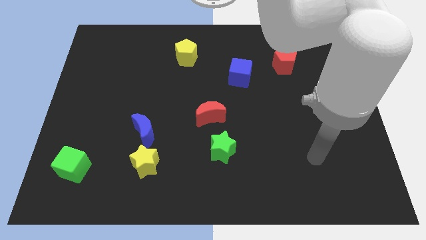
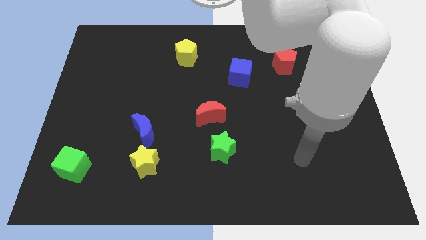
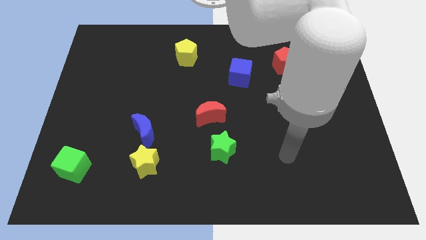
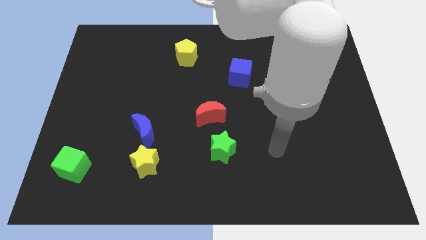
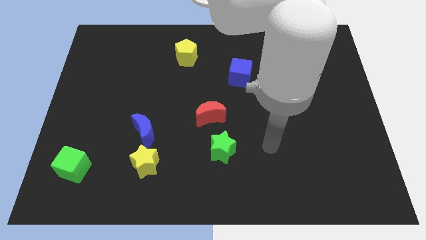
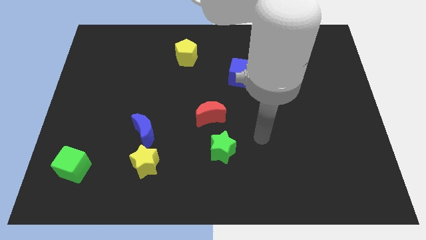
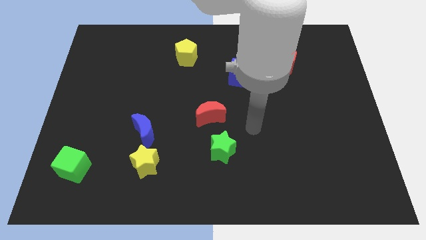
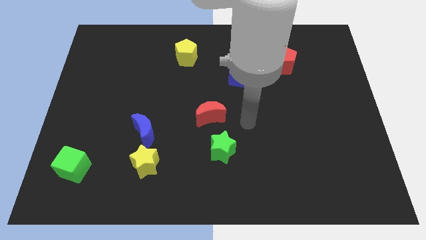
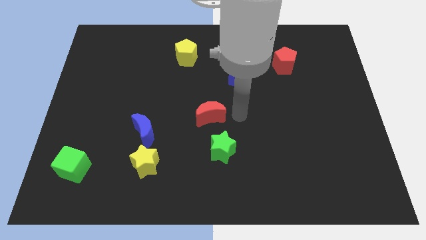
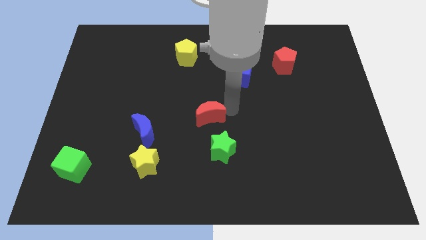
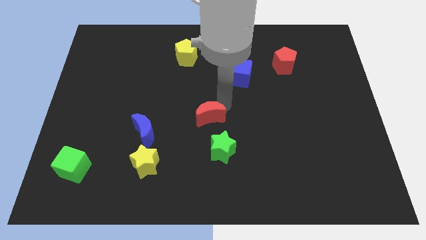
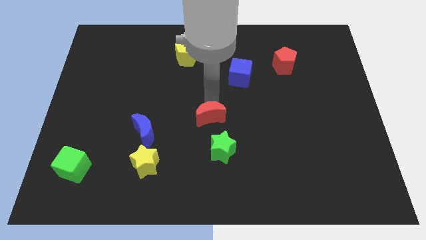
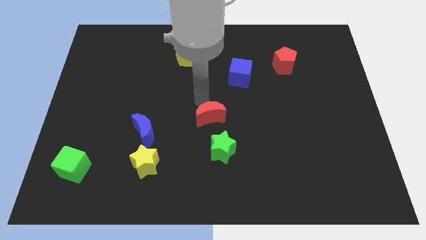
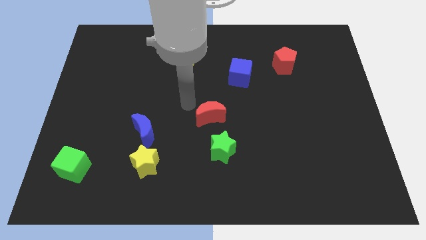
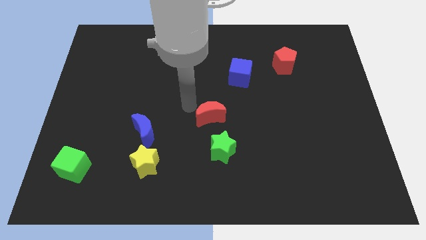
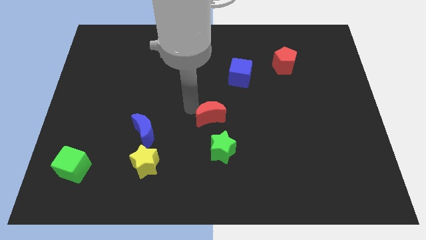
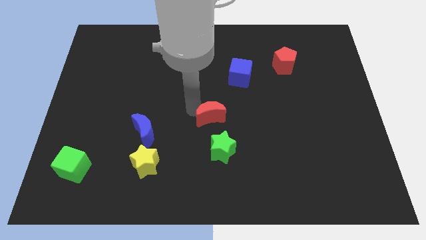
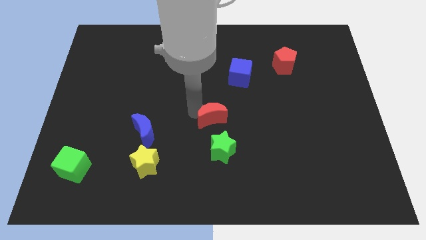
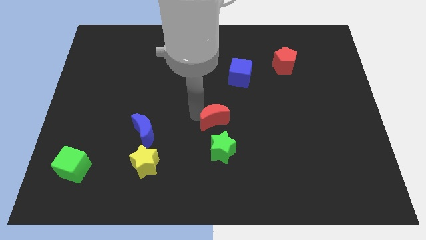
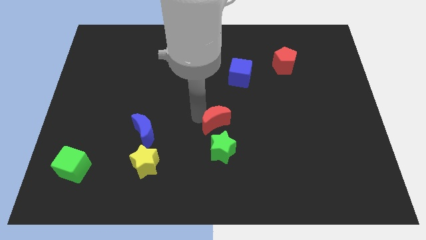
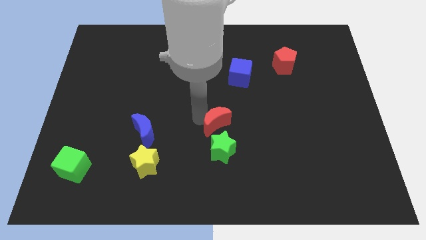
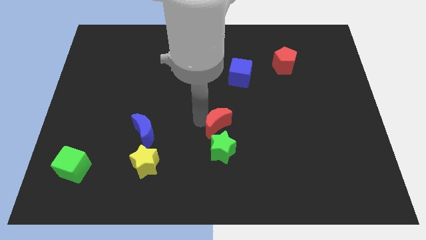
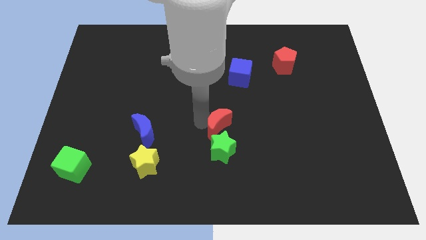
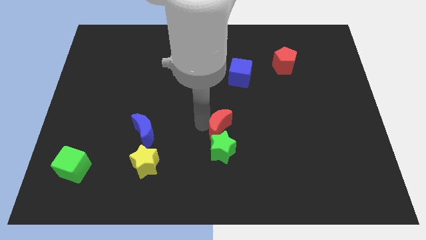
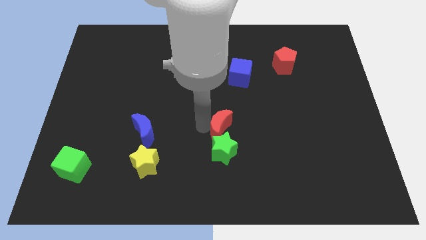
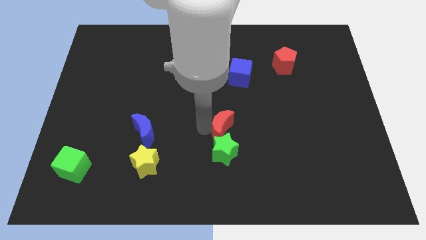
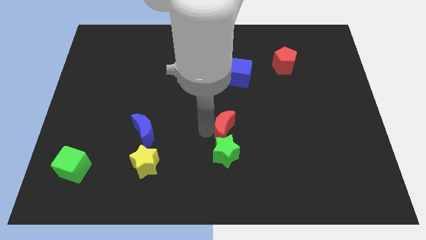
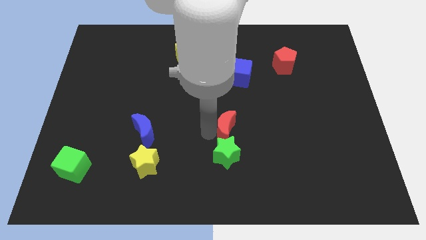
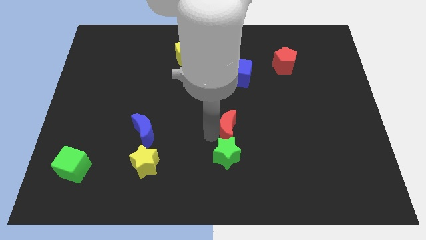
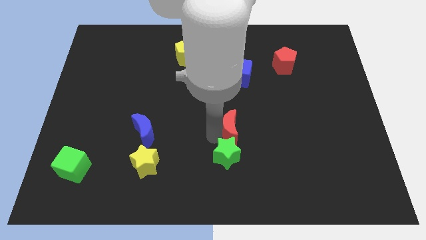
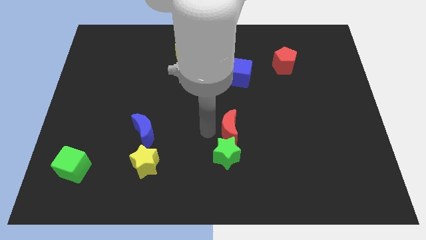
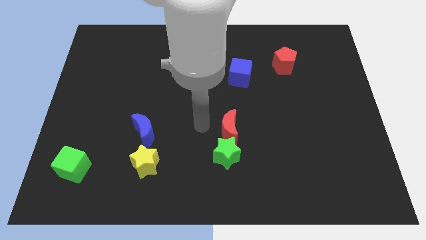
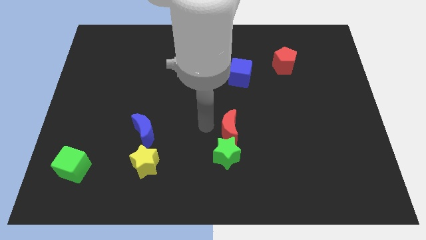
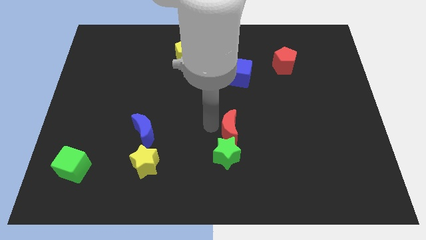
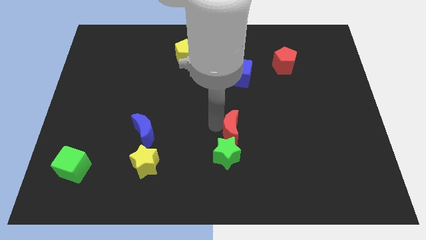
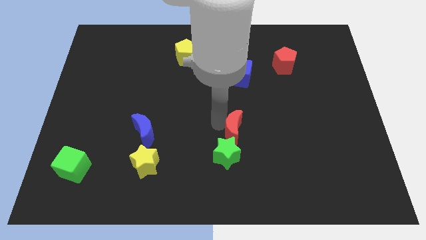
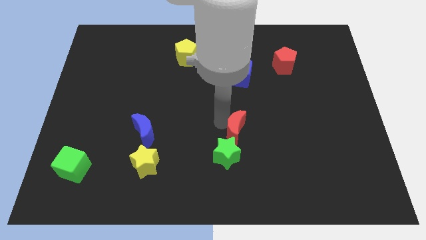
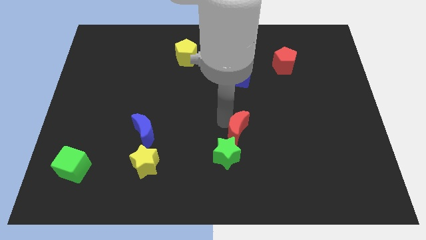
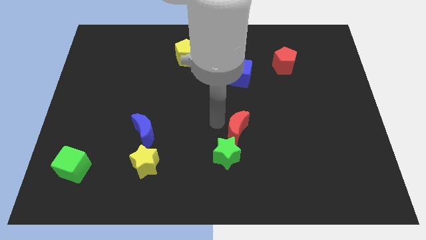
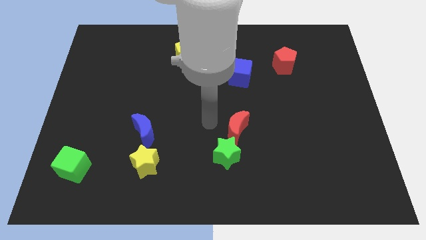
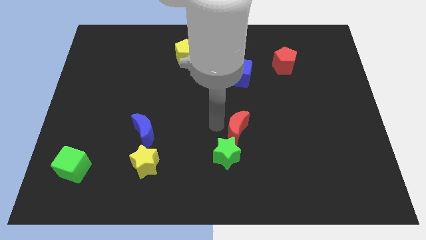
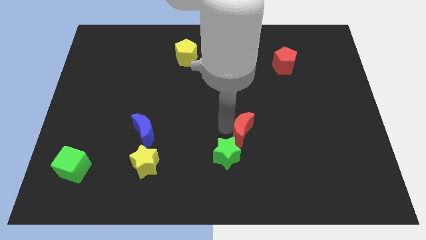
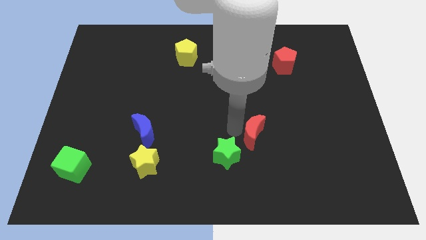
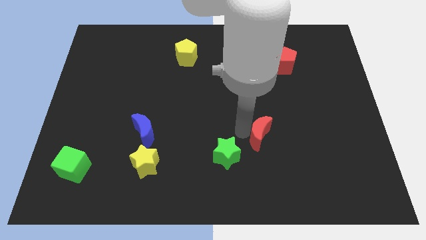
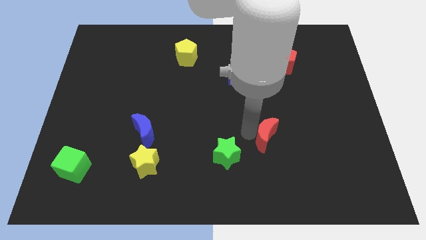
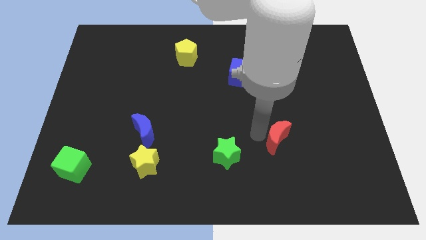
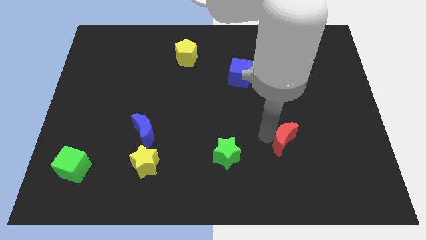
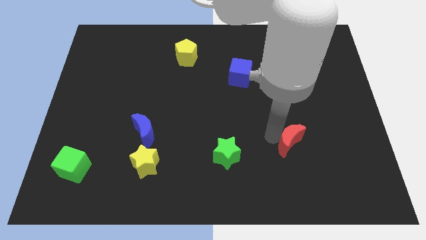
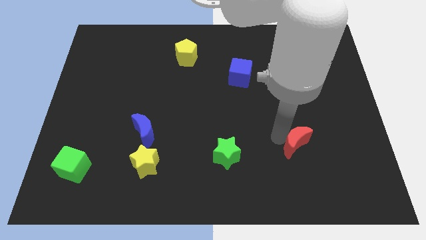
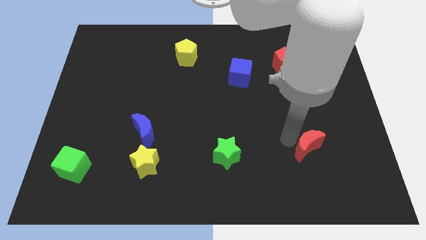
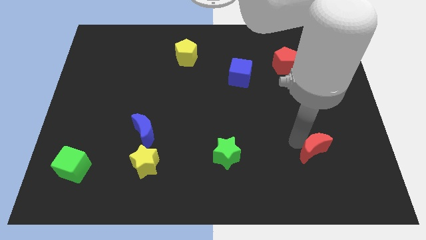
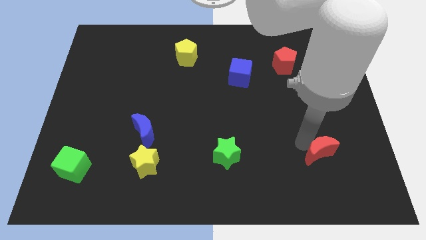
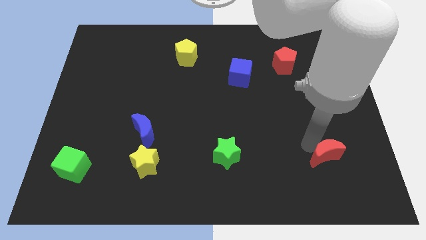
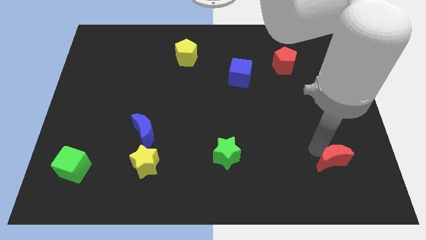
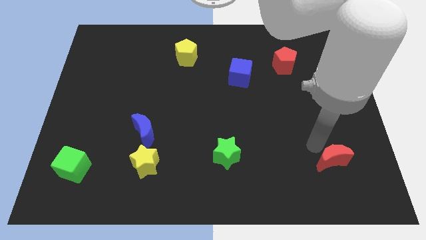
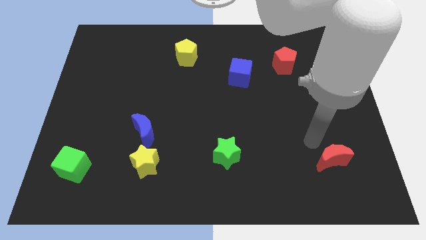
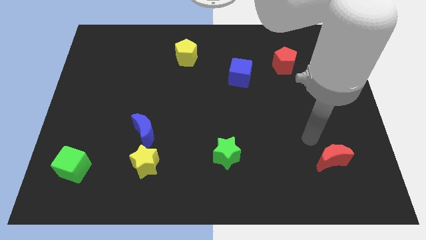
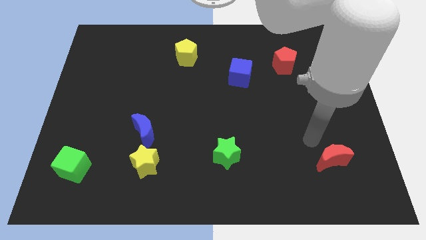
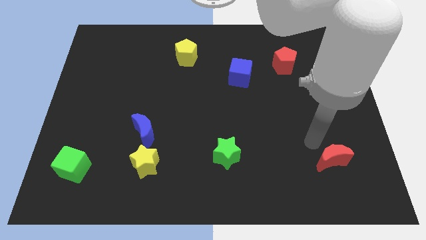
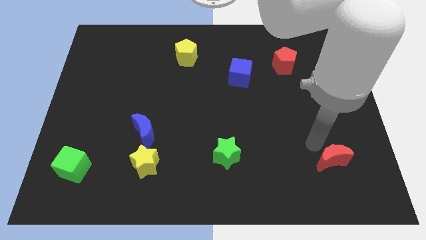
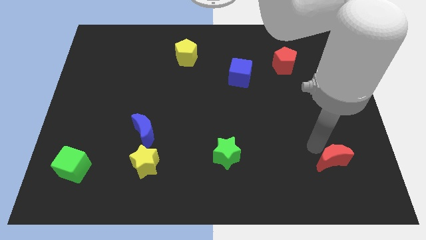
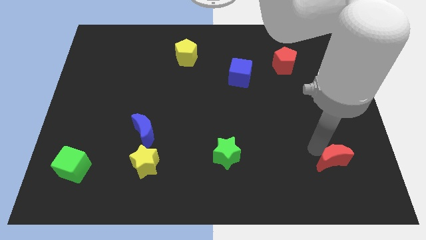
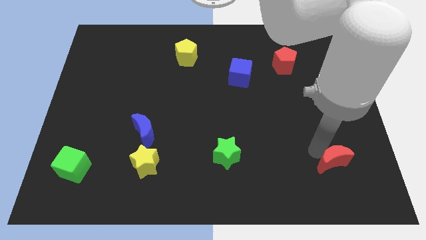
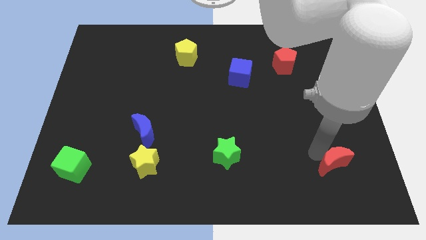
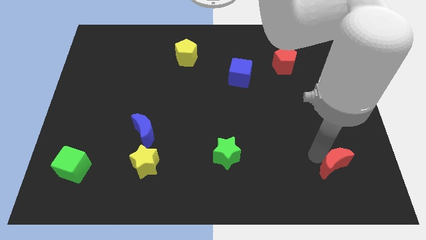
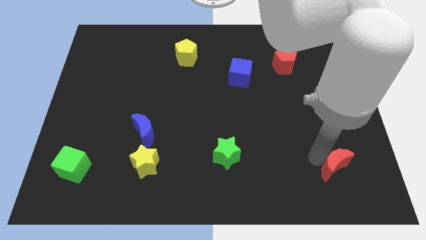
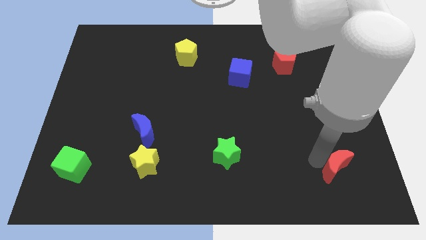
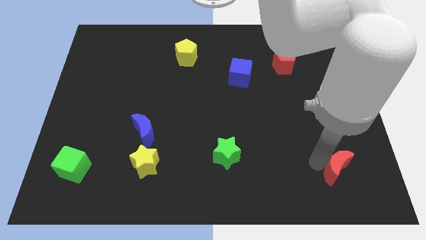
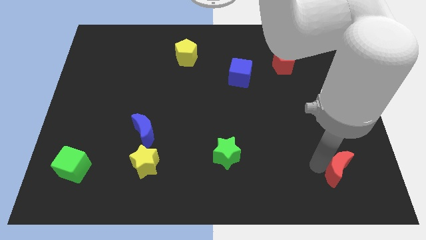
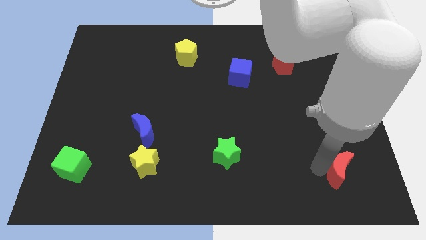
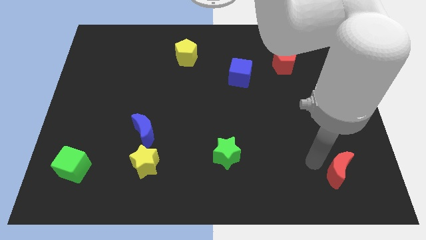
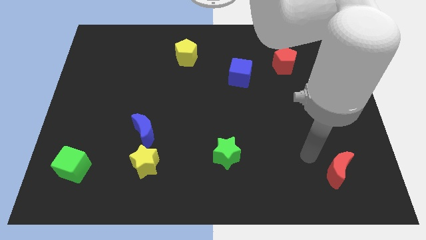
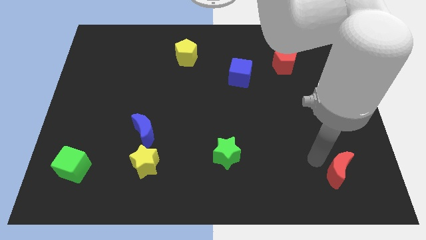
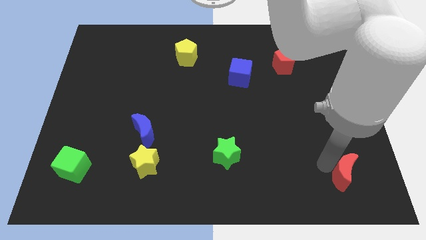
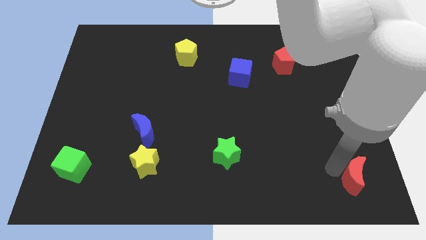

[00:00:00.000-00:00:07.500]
move the red moon to the lower right corner
